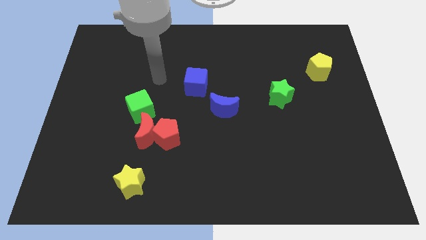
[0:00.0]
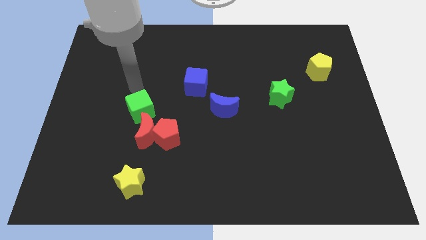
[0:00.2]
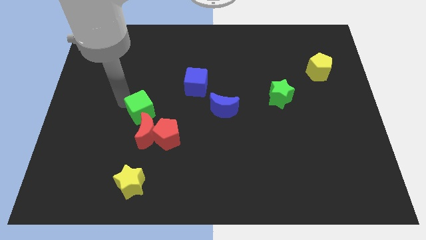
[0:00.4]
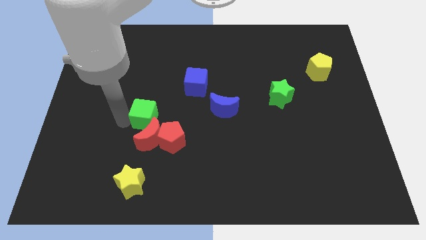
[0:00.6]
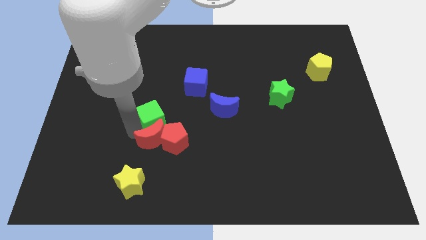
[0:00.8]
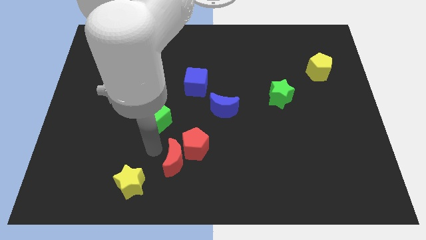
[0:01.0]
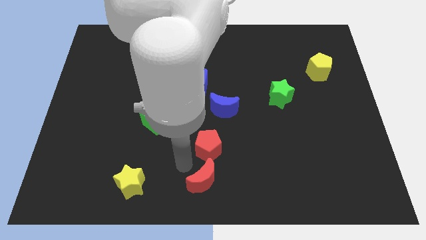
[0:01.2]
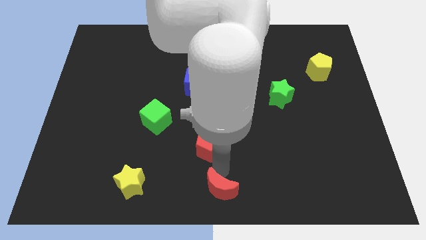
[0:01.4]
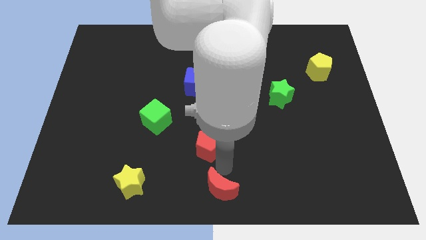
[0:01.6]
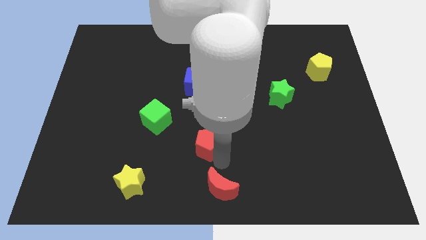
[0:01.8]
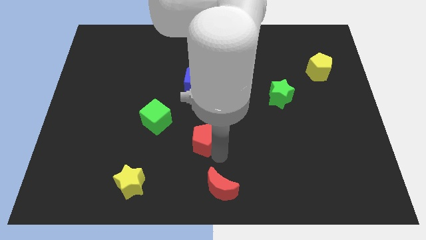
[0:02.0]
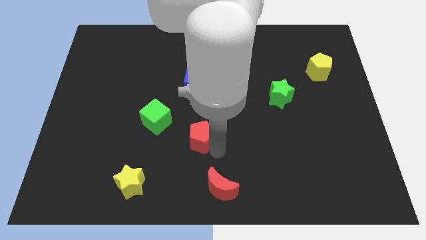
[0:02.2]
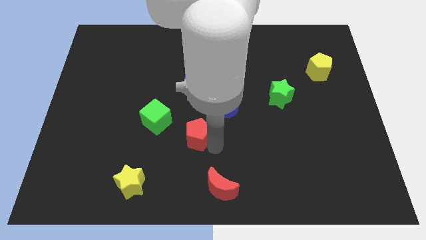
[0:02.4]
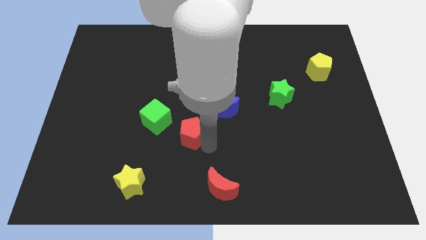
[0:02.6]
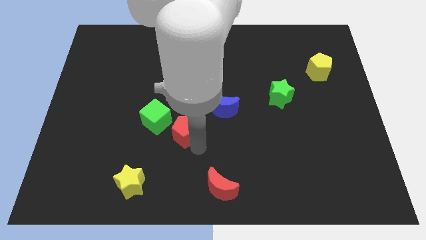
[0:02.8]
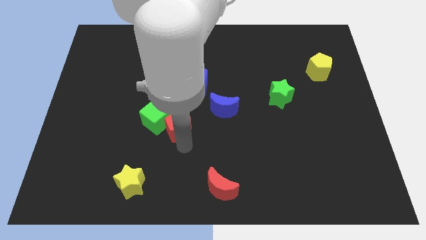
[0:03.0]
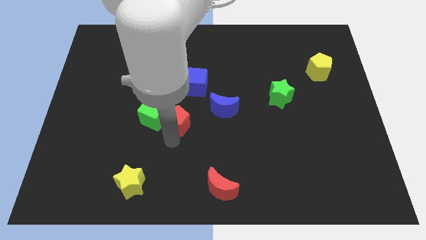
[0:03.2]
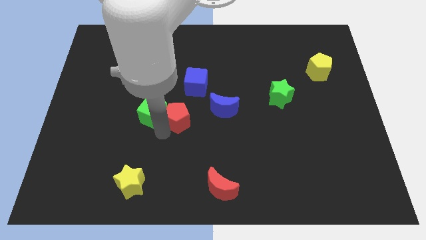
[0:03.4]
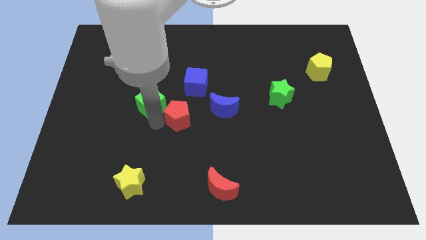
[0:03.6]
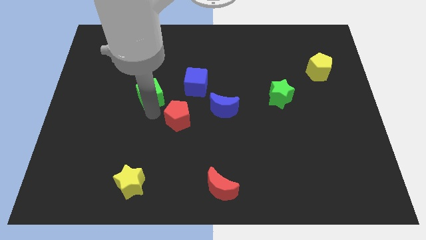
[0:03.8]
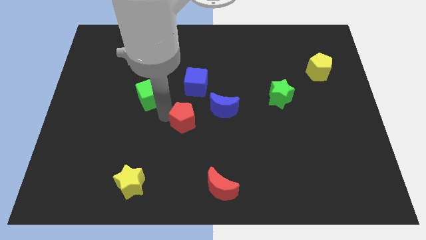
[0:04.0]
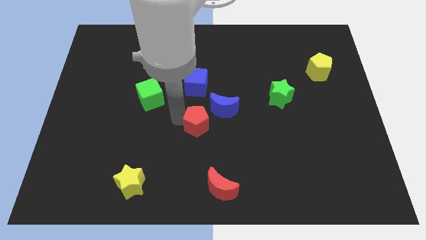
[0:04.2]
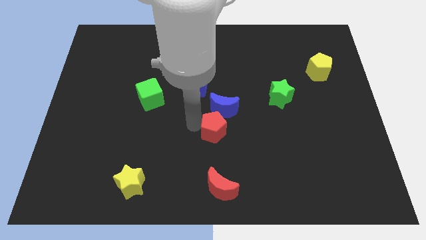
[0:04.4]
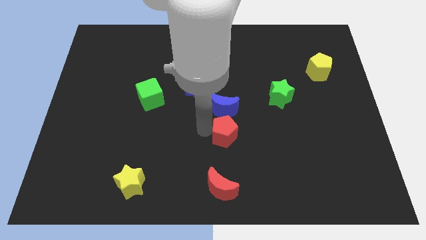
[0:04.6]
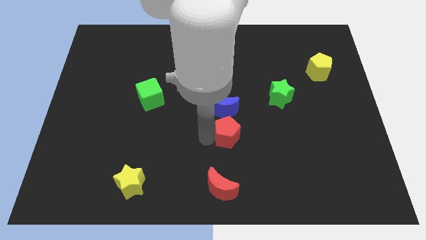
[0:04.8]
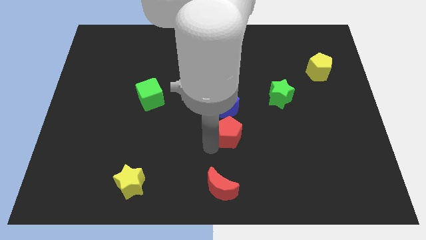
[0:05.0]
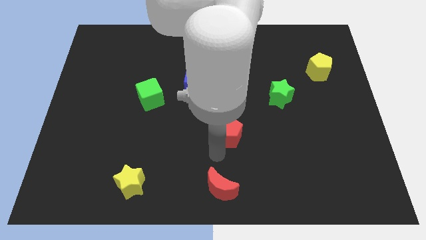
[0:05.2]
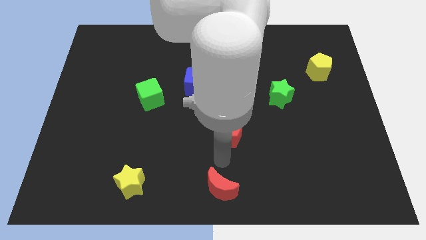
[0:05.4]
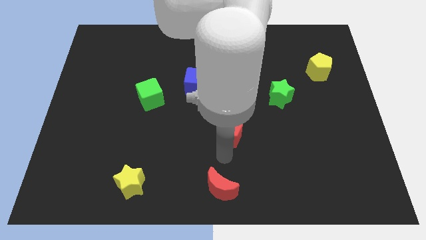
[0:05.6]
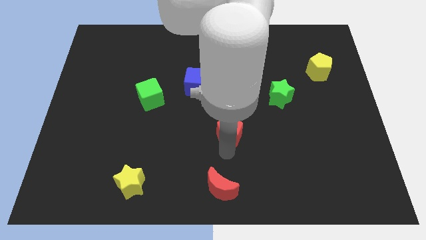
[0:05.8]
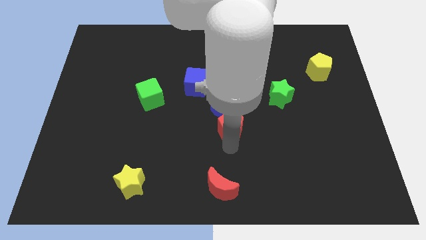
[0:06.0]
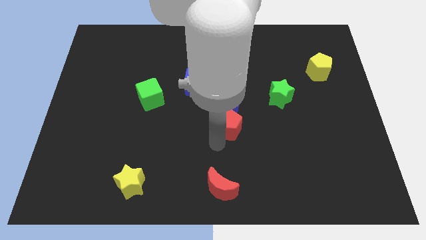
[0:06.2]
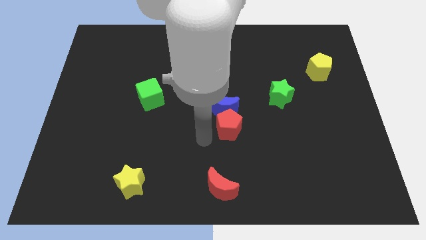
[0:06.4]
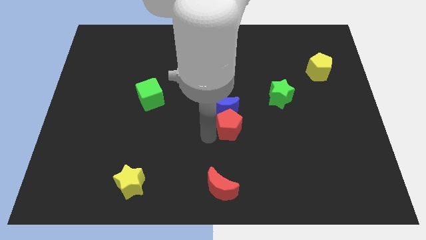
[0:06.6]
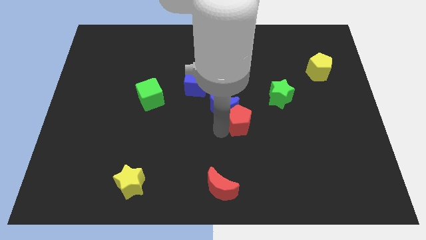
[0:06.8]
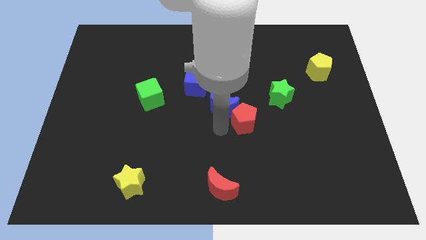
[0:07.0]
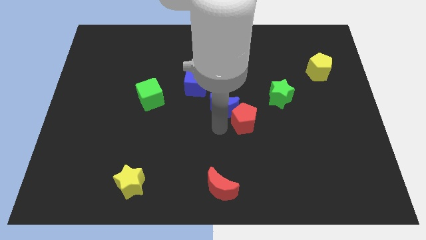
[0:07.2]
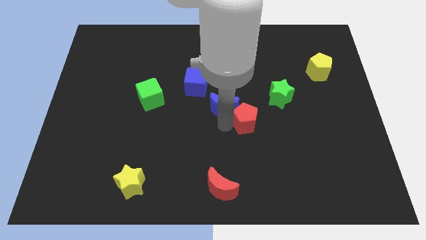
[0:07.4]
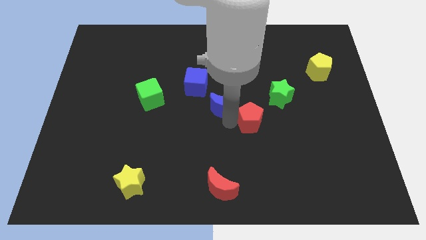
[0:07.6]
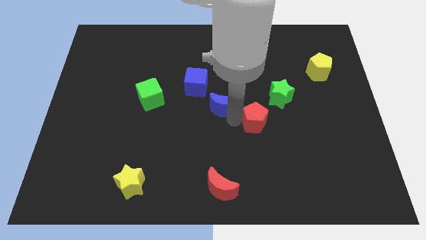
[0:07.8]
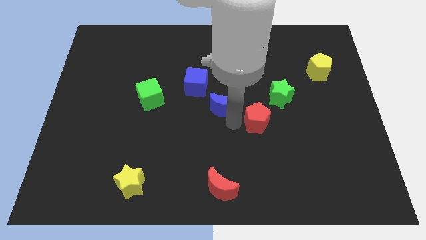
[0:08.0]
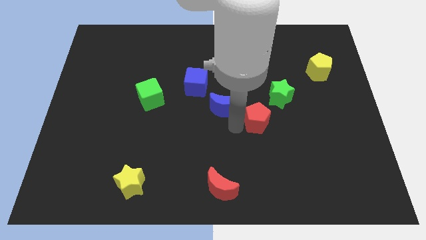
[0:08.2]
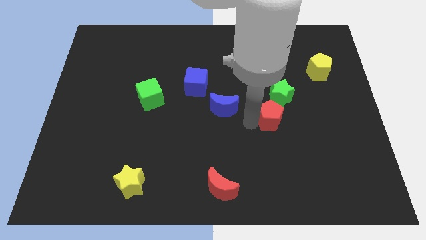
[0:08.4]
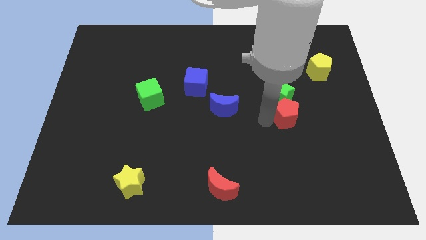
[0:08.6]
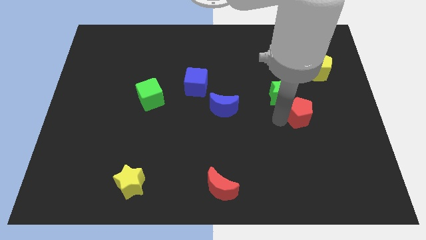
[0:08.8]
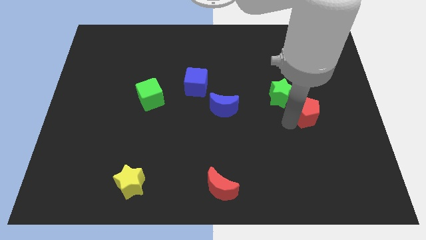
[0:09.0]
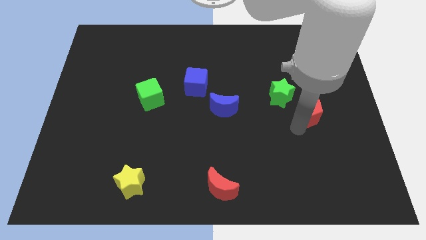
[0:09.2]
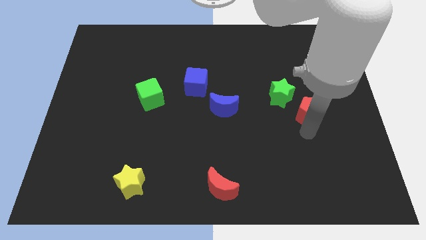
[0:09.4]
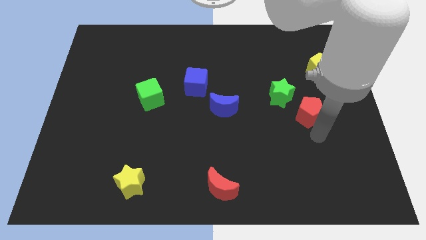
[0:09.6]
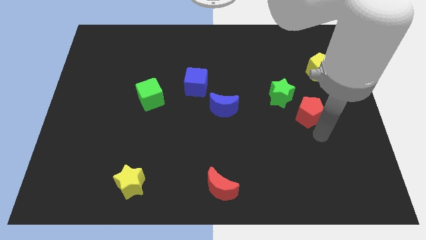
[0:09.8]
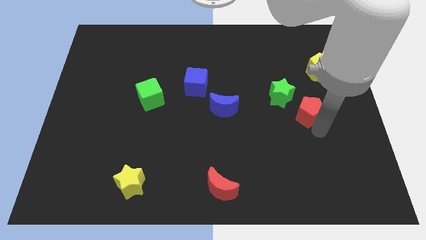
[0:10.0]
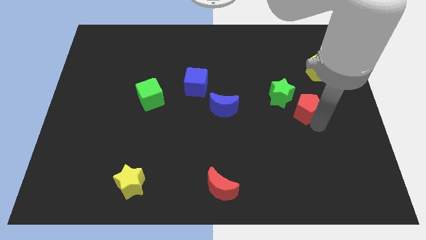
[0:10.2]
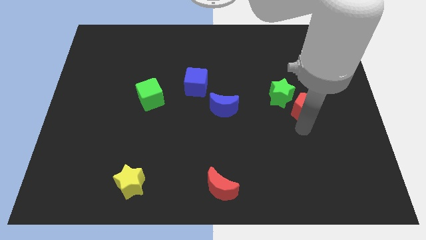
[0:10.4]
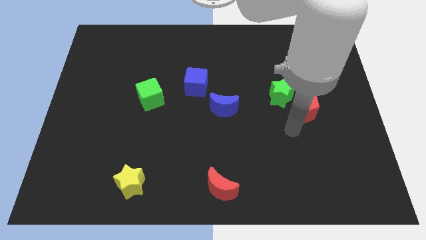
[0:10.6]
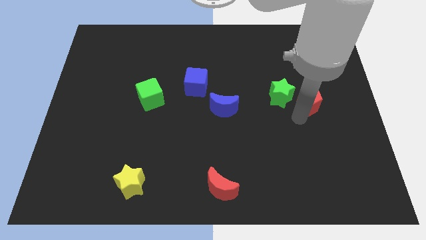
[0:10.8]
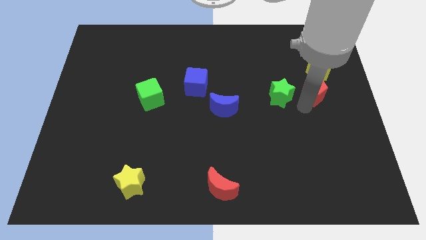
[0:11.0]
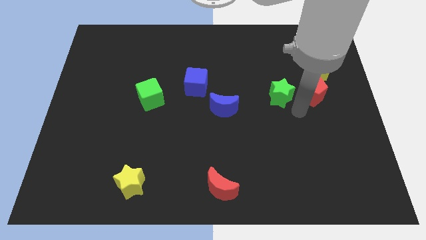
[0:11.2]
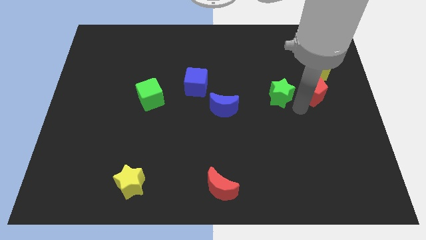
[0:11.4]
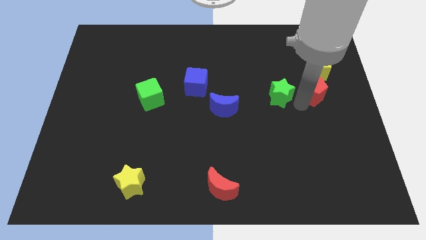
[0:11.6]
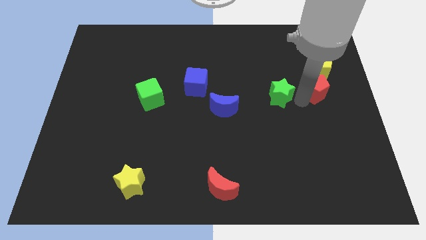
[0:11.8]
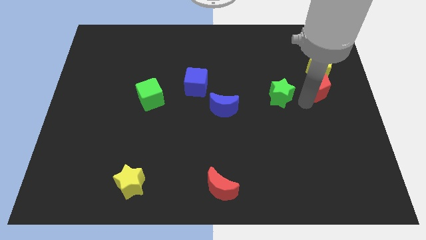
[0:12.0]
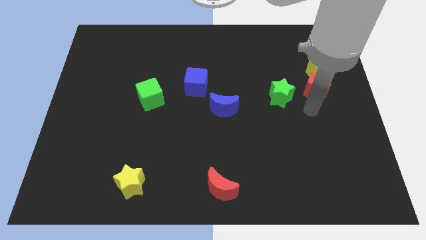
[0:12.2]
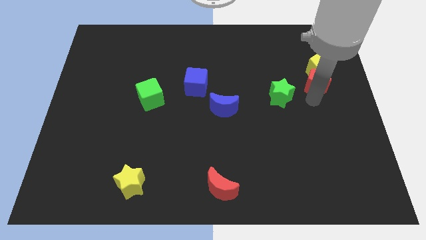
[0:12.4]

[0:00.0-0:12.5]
slide the red pentagon next to the yellow pentagon
